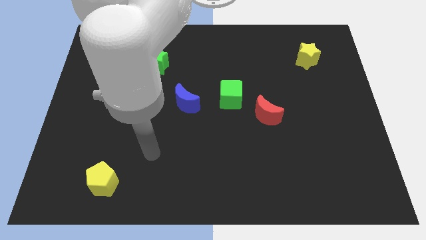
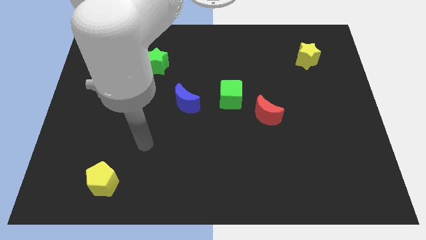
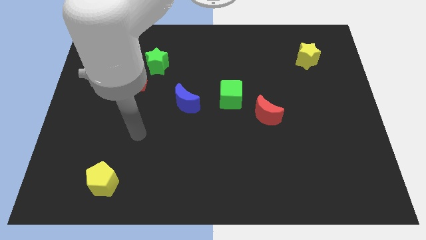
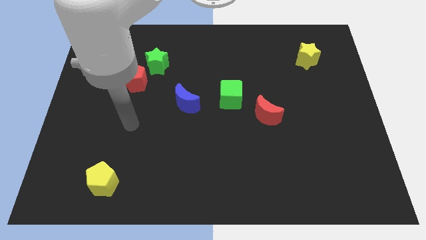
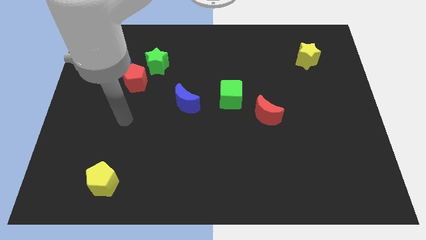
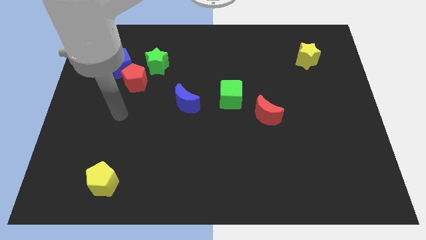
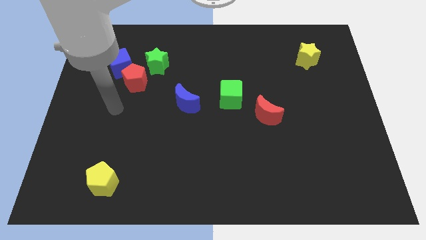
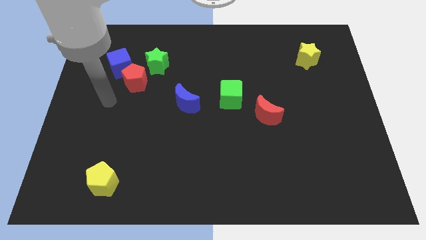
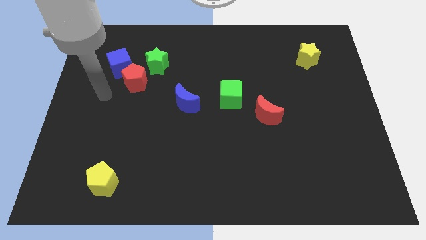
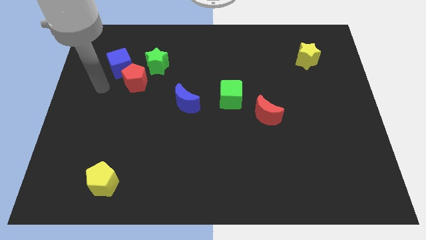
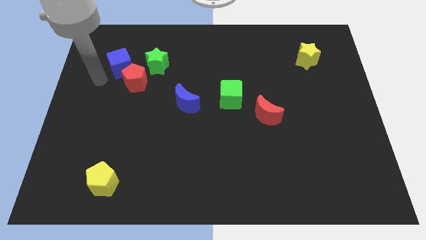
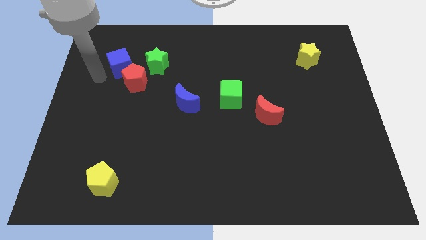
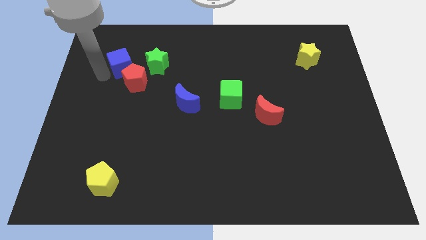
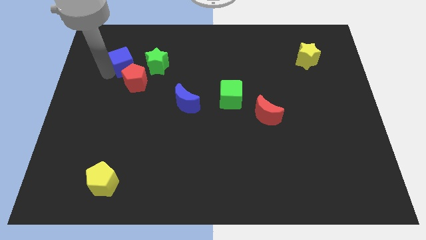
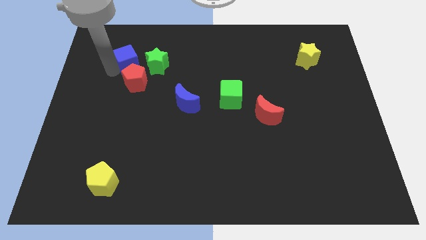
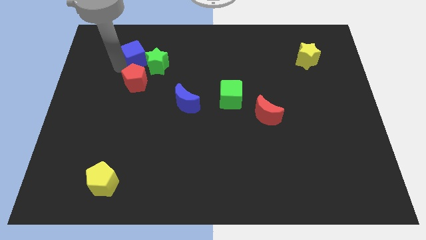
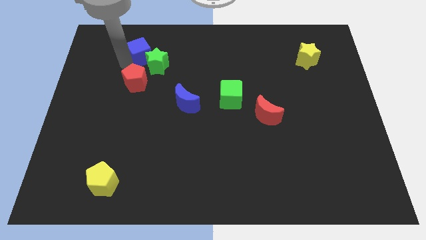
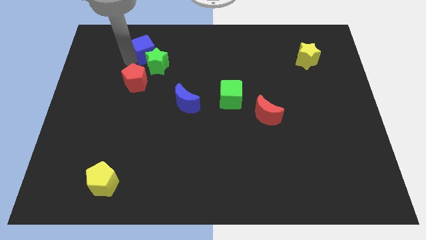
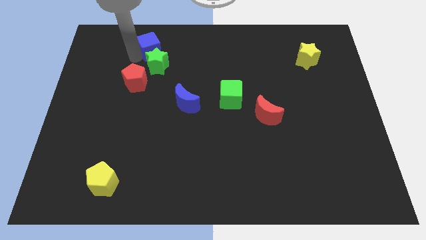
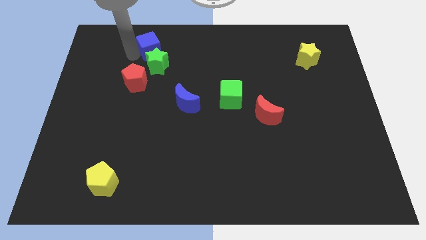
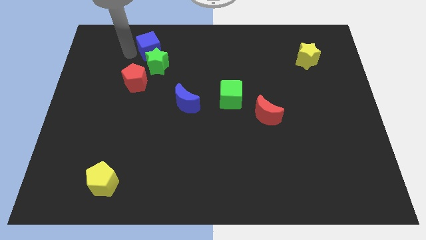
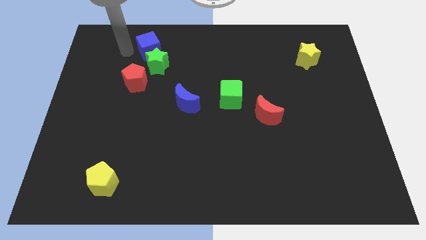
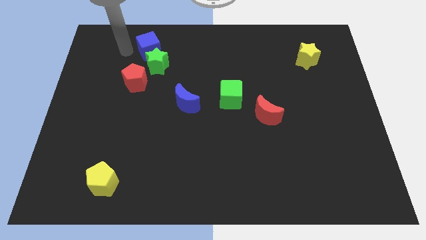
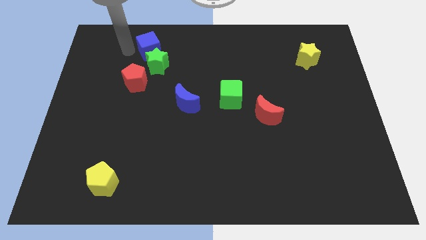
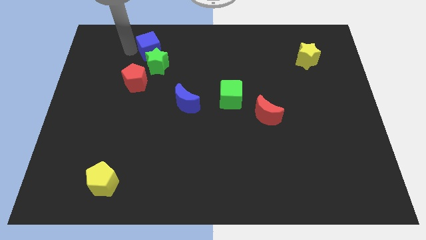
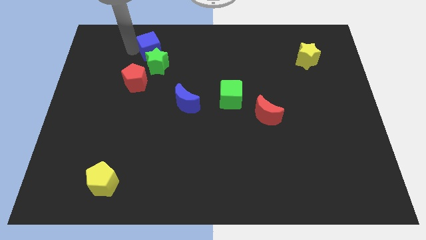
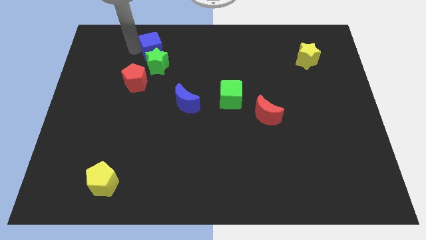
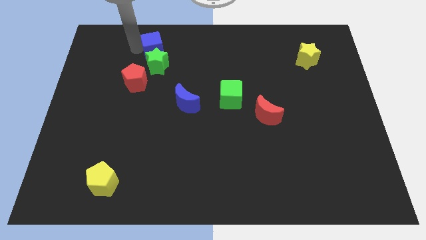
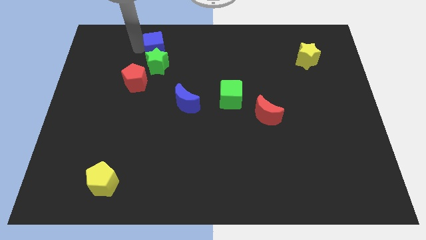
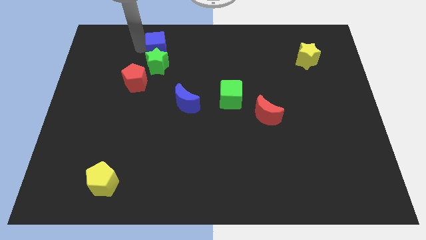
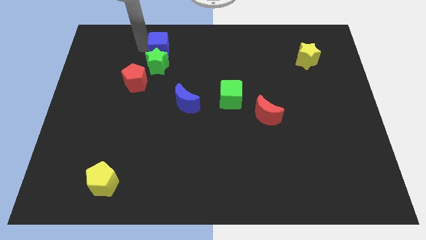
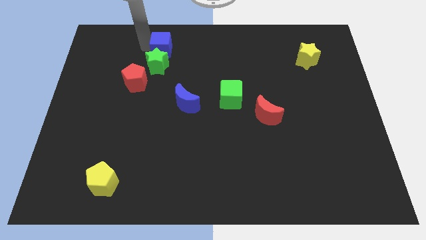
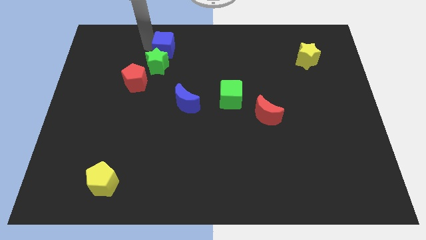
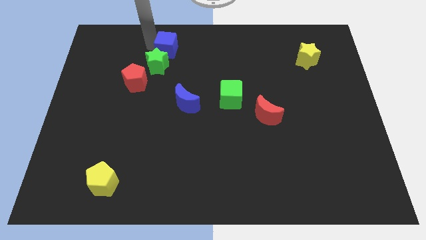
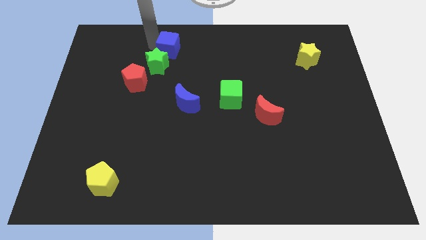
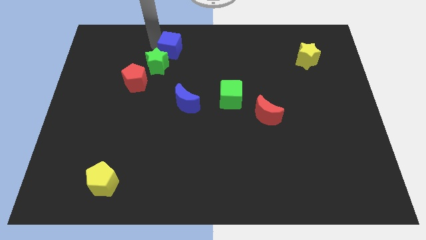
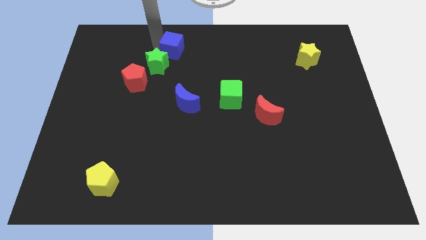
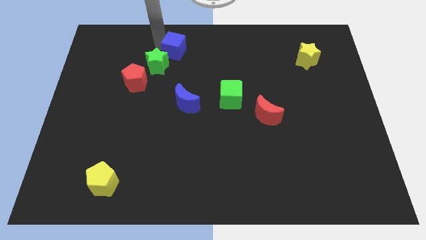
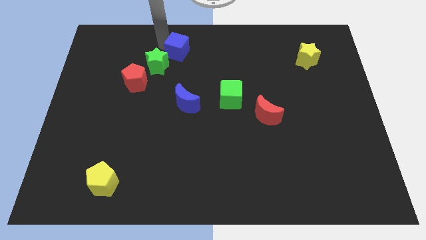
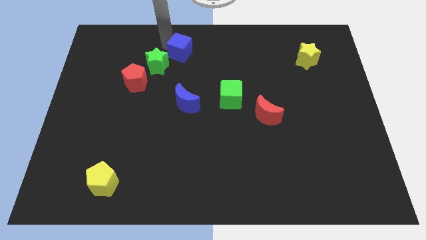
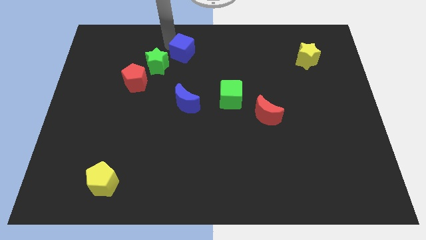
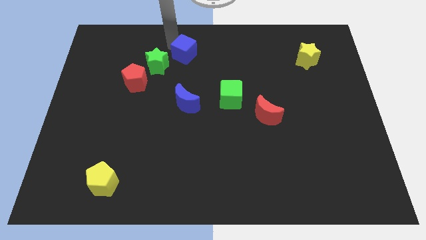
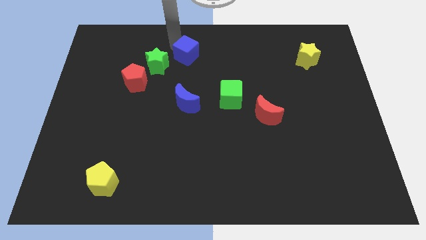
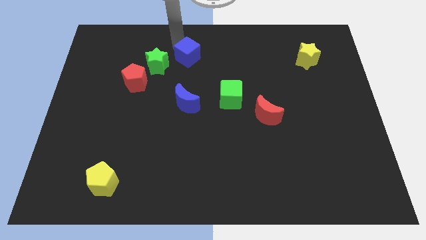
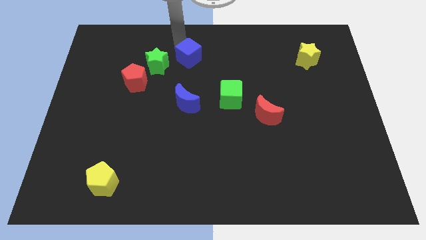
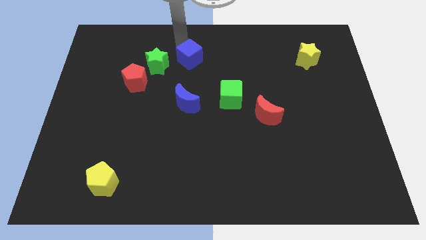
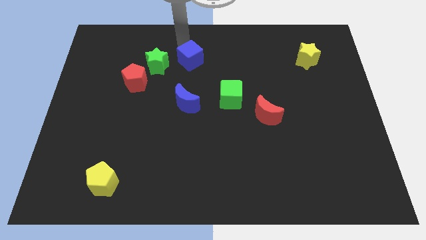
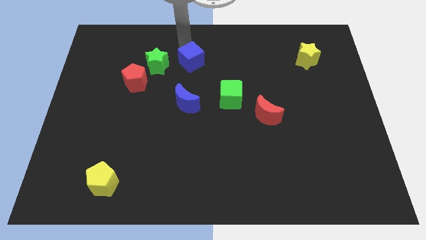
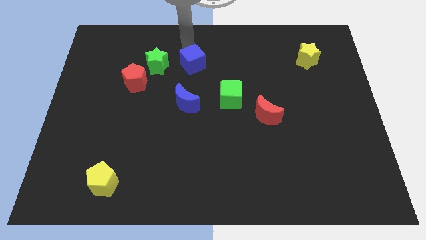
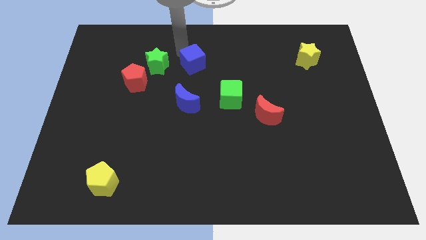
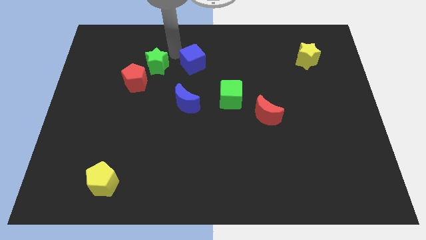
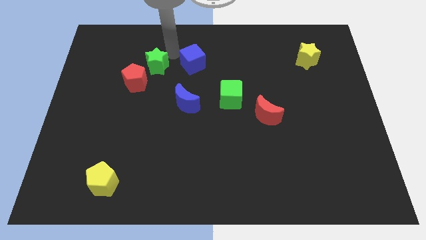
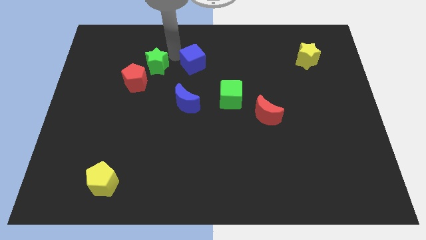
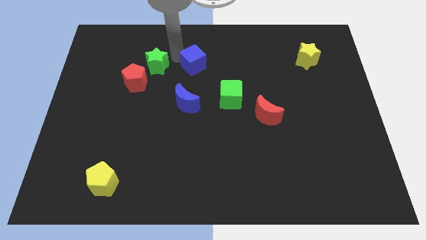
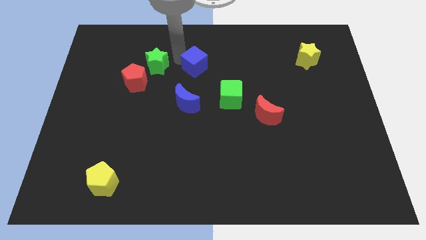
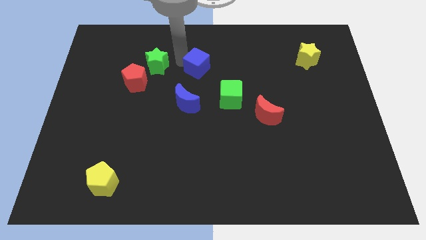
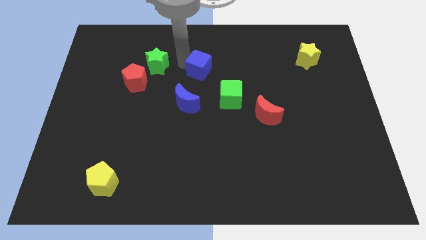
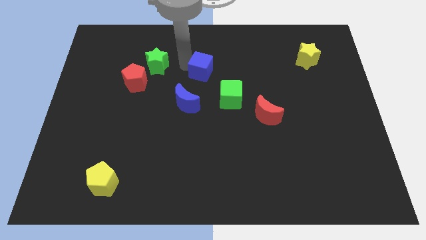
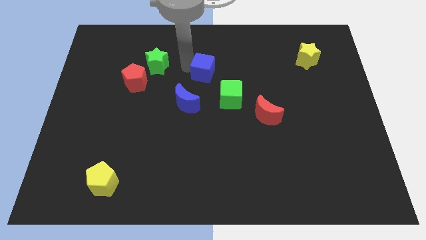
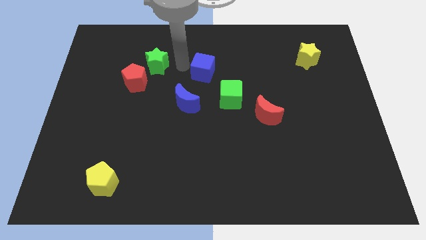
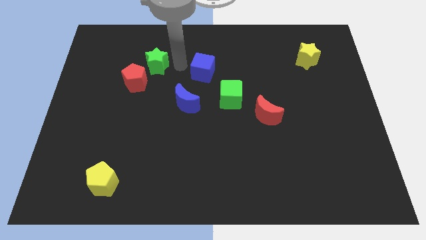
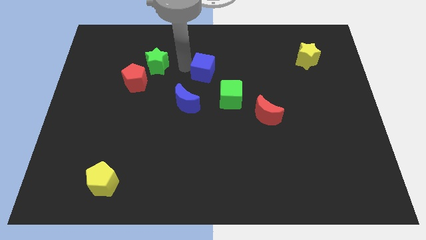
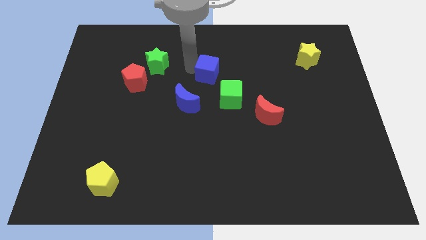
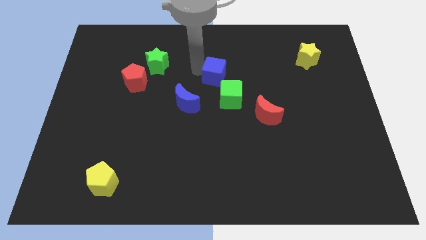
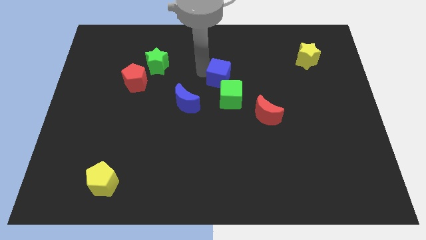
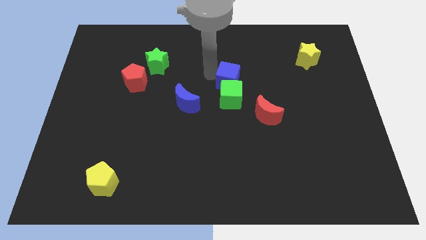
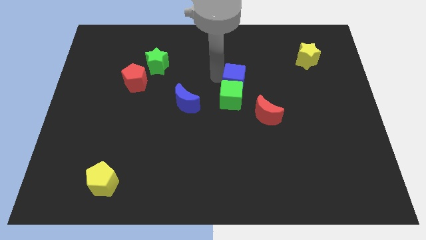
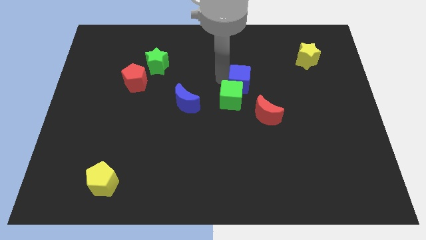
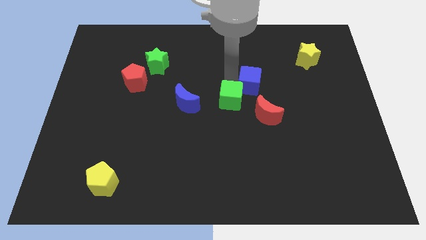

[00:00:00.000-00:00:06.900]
move the blue cube to the right of the green cube

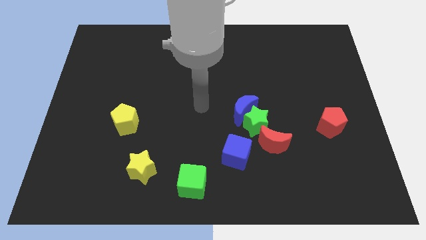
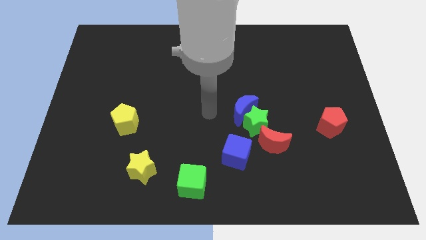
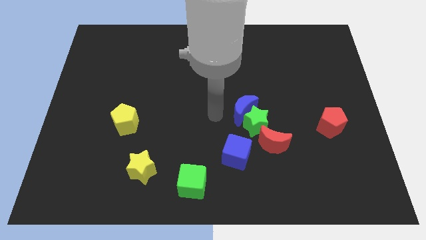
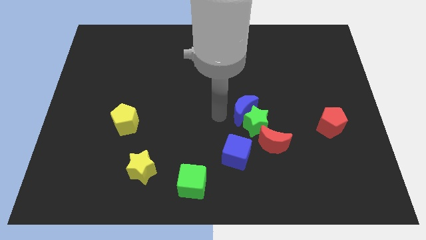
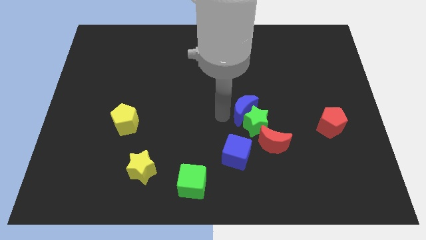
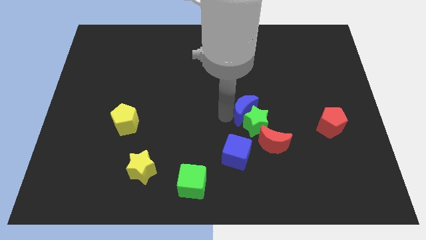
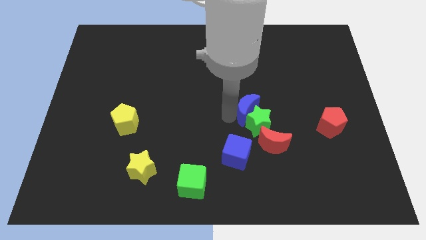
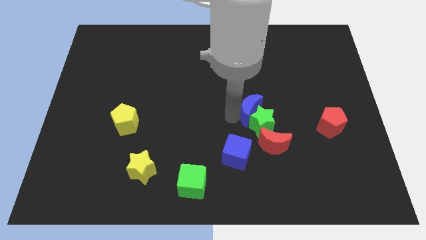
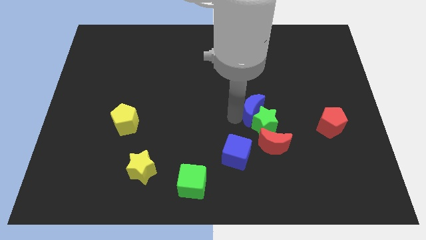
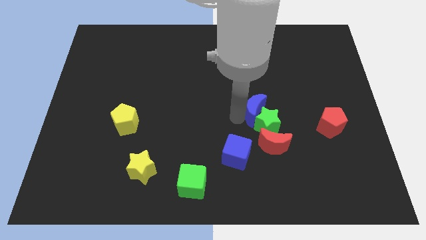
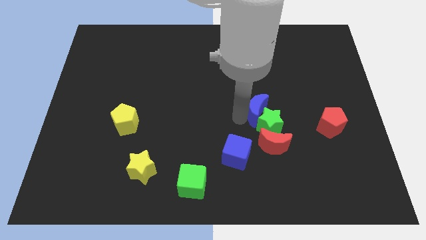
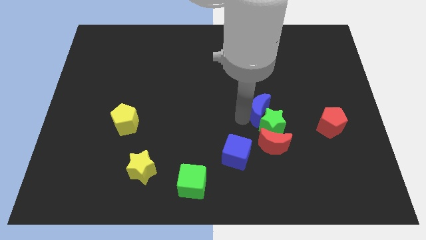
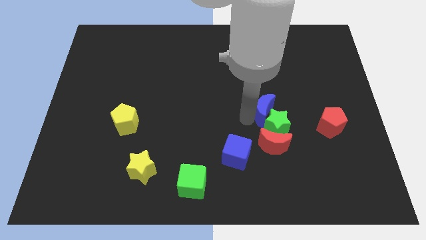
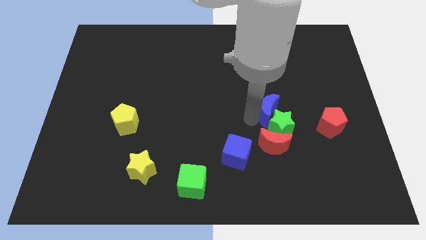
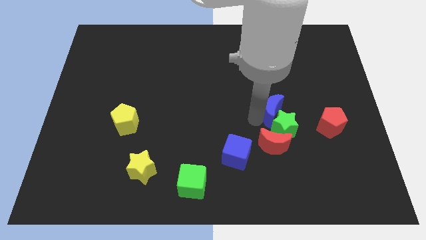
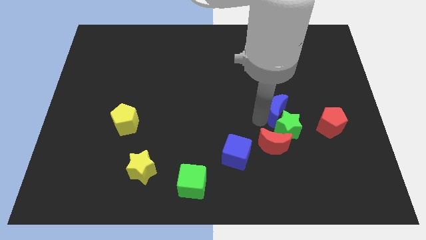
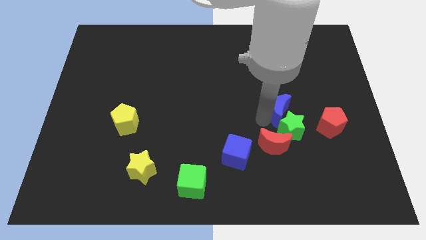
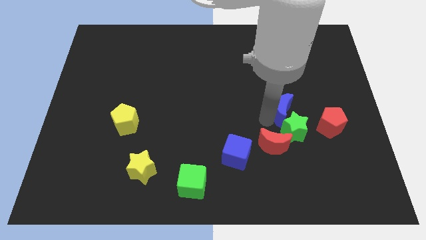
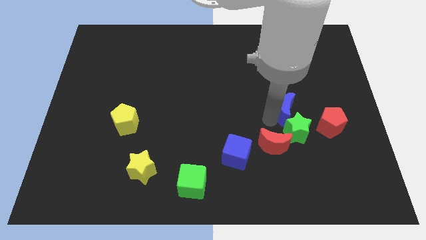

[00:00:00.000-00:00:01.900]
move the blue moon to the top left of the red pentagon
